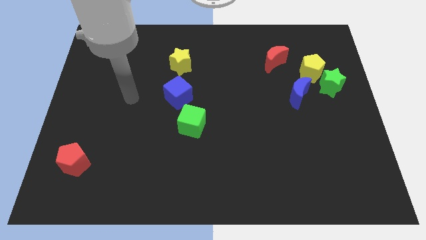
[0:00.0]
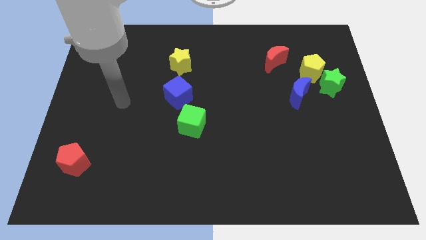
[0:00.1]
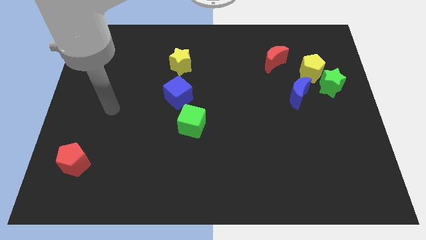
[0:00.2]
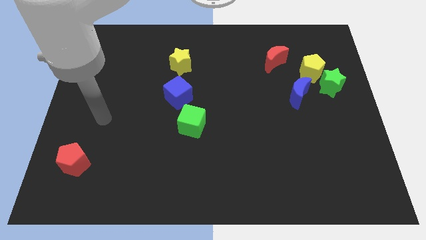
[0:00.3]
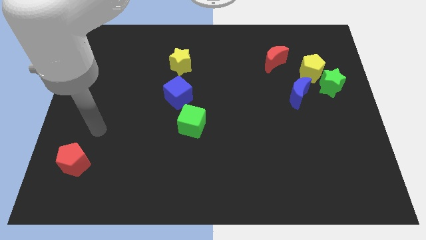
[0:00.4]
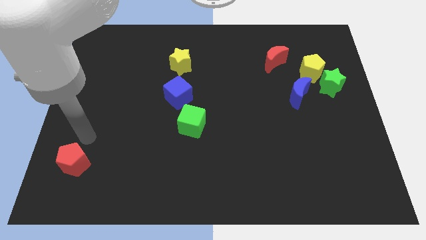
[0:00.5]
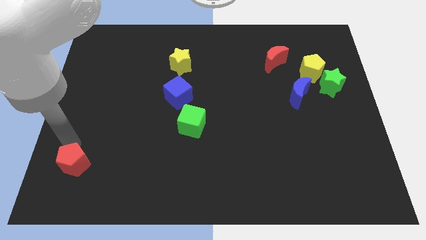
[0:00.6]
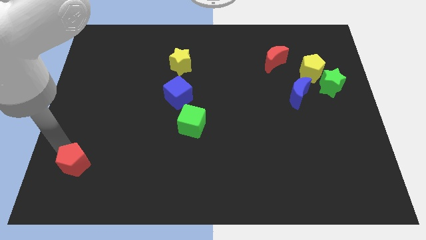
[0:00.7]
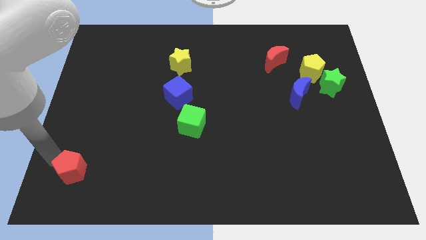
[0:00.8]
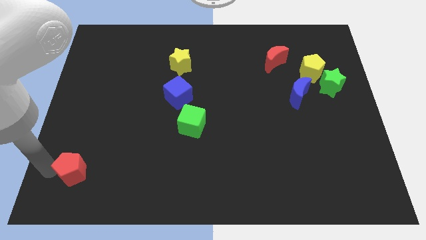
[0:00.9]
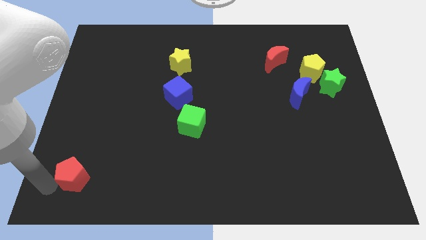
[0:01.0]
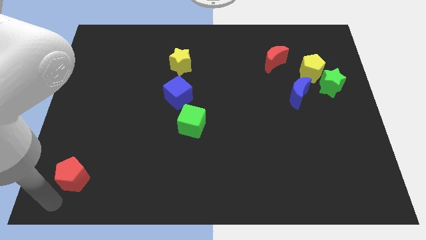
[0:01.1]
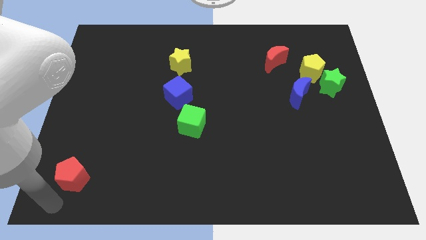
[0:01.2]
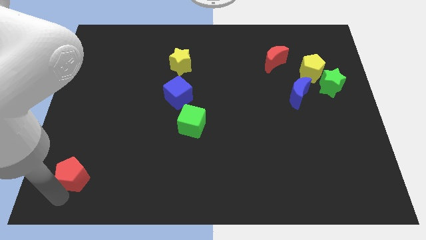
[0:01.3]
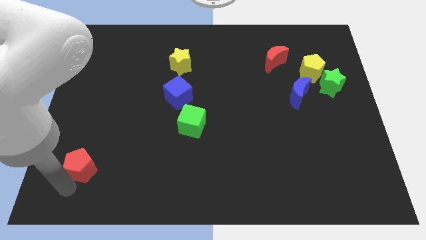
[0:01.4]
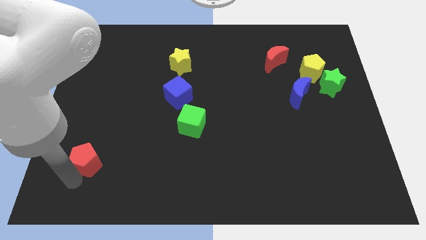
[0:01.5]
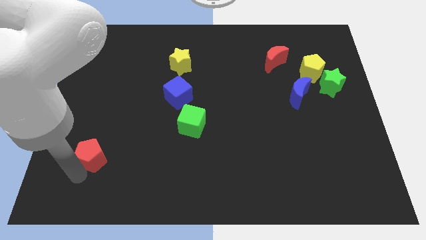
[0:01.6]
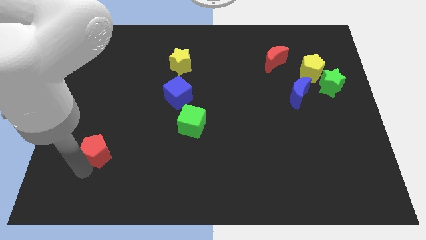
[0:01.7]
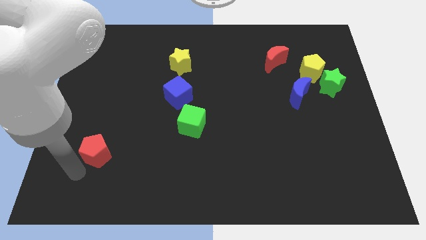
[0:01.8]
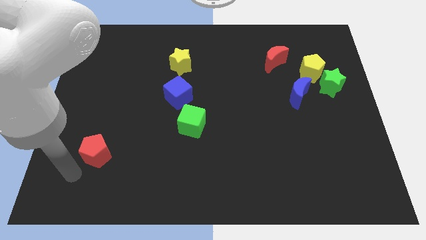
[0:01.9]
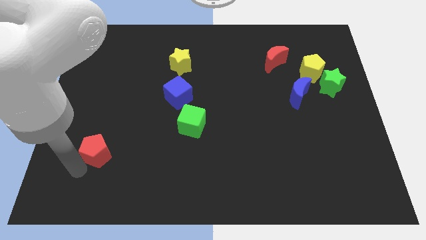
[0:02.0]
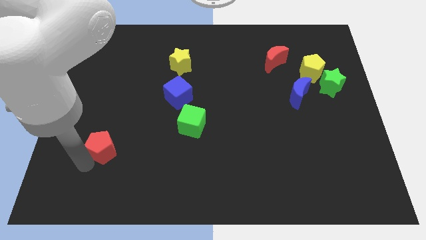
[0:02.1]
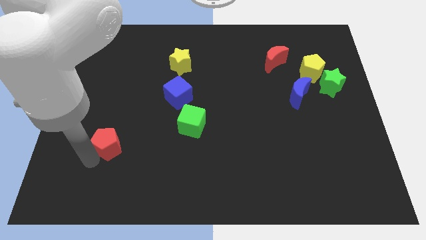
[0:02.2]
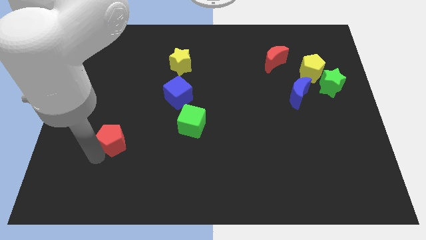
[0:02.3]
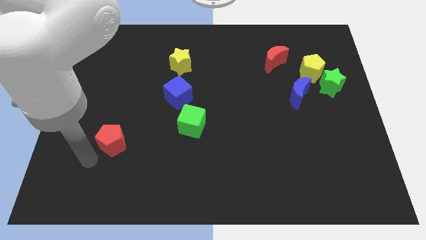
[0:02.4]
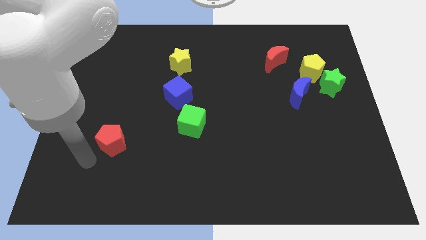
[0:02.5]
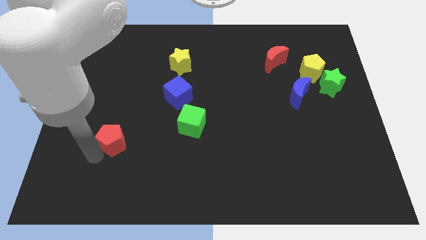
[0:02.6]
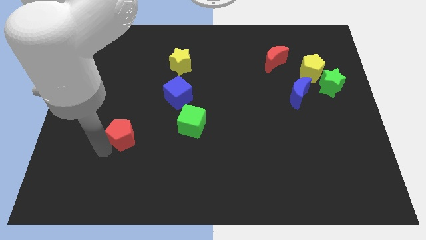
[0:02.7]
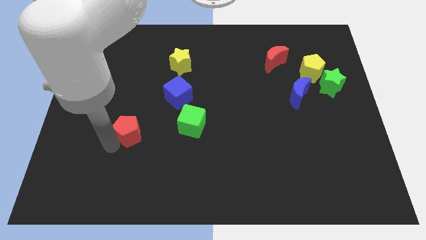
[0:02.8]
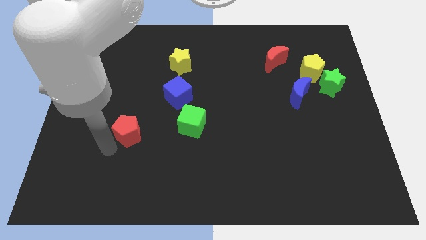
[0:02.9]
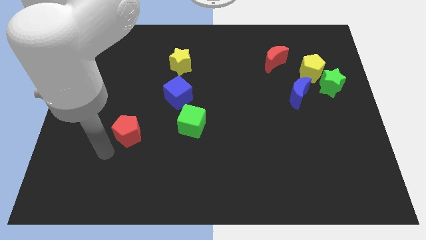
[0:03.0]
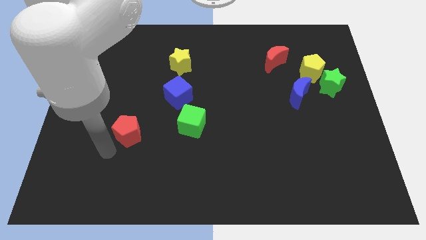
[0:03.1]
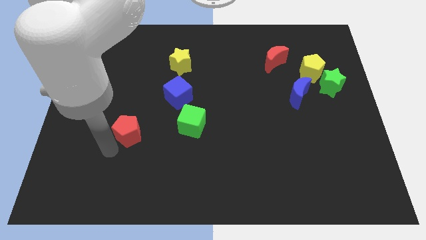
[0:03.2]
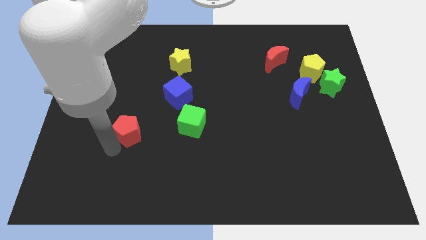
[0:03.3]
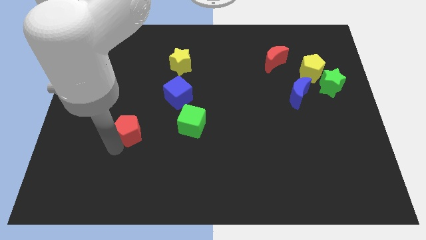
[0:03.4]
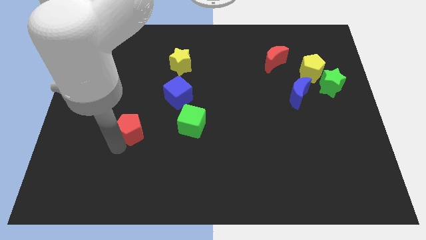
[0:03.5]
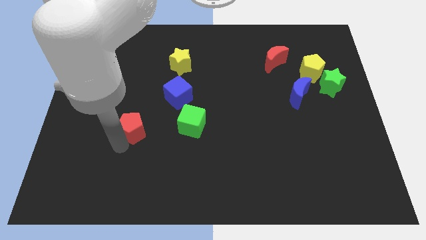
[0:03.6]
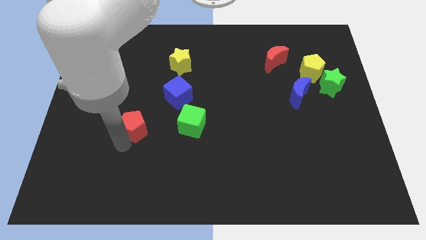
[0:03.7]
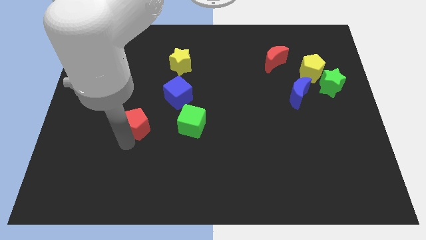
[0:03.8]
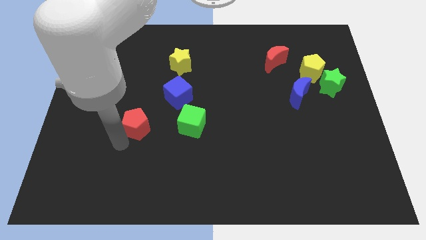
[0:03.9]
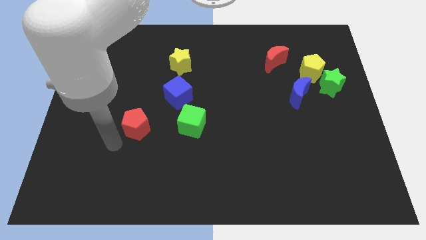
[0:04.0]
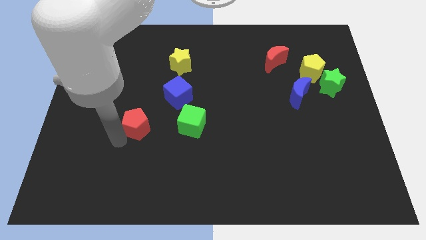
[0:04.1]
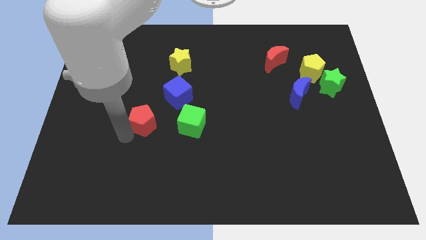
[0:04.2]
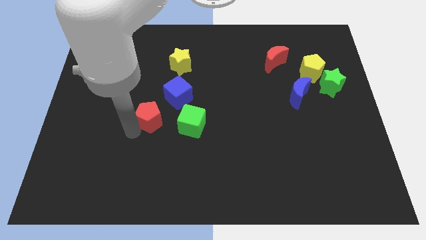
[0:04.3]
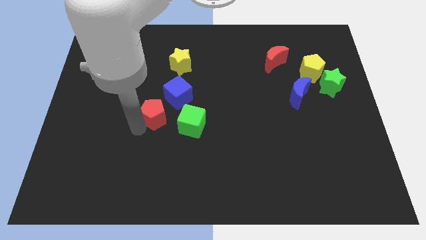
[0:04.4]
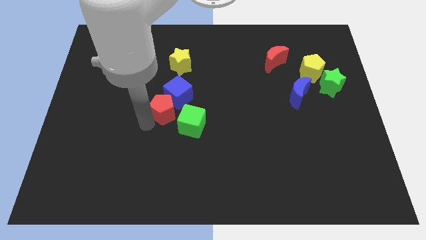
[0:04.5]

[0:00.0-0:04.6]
put the red pentagon close to the blue cube

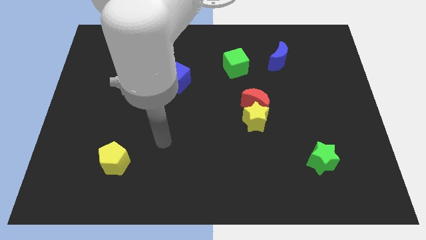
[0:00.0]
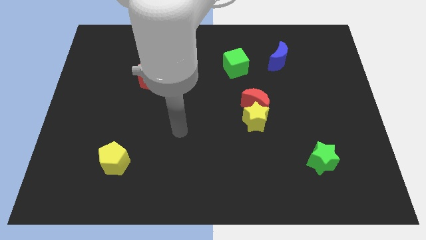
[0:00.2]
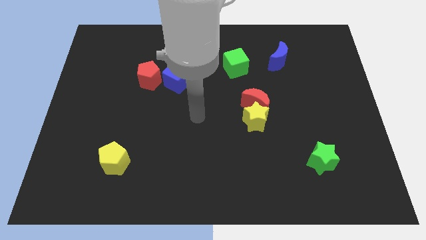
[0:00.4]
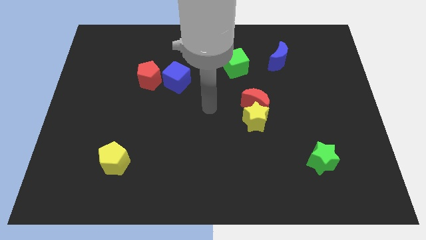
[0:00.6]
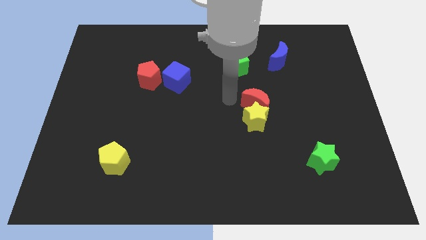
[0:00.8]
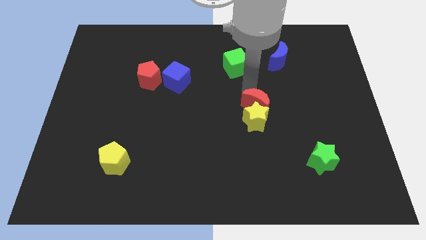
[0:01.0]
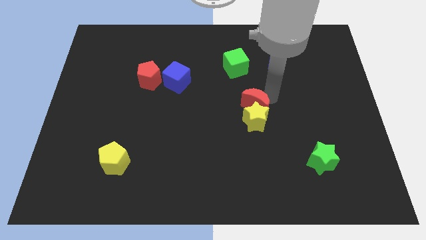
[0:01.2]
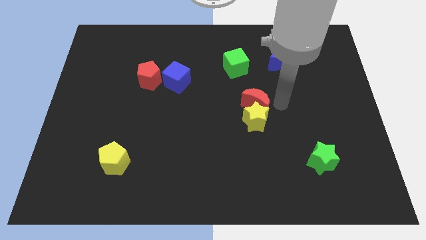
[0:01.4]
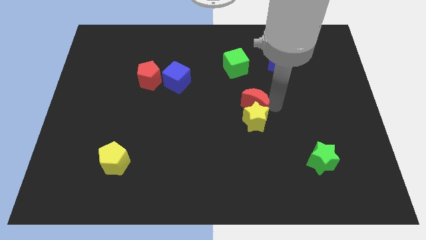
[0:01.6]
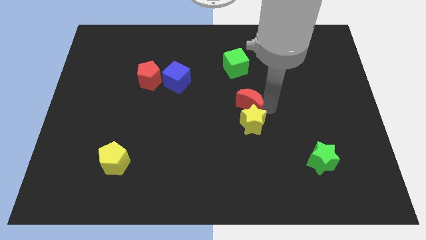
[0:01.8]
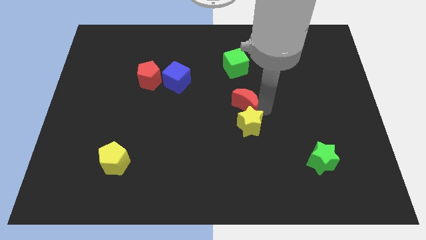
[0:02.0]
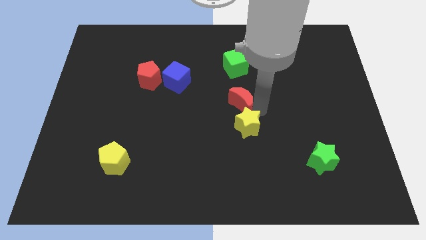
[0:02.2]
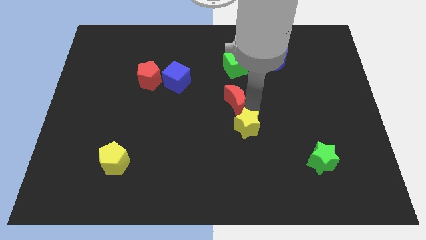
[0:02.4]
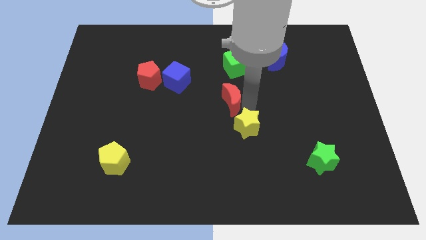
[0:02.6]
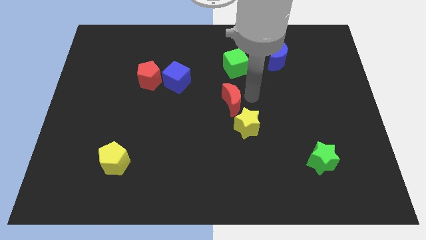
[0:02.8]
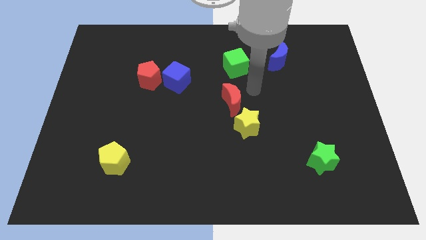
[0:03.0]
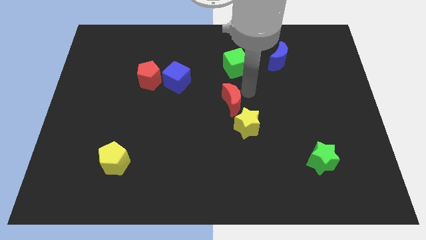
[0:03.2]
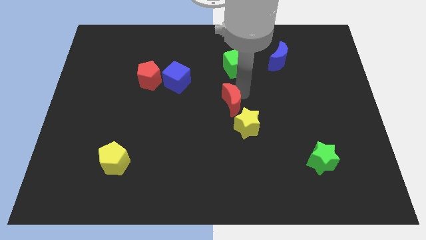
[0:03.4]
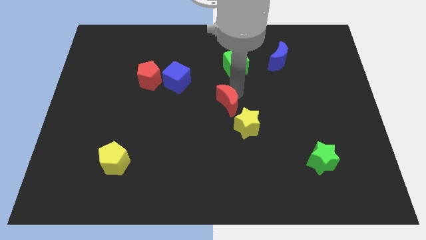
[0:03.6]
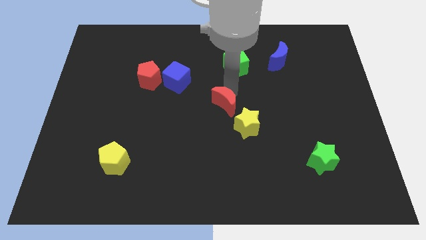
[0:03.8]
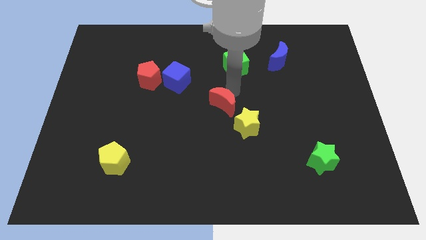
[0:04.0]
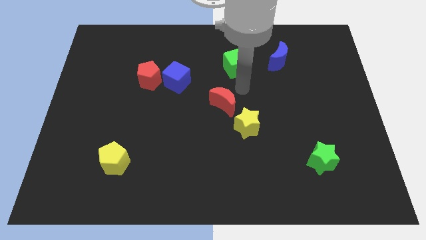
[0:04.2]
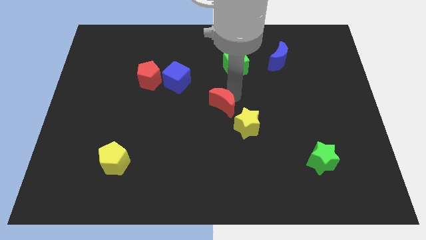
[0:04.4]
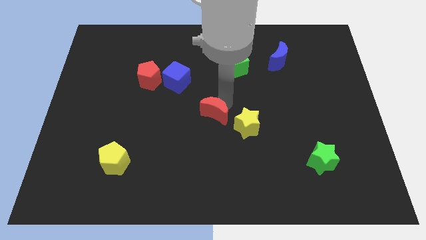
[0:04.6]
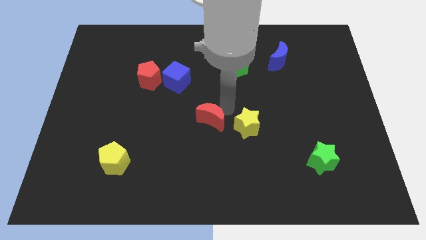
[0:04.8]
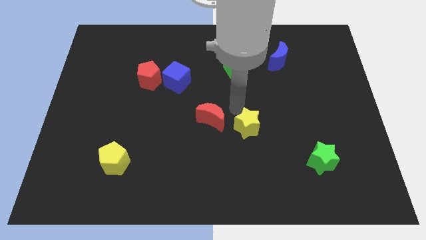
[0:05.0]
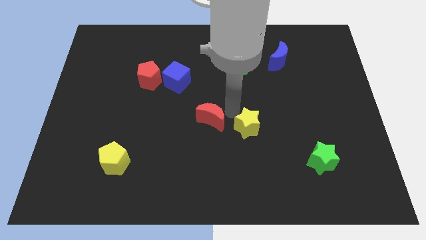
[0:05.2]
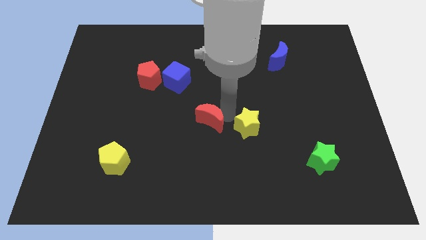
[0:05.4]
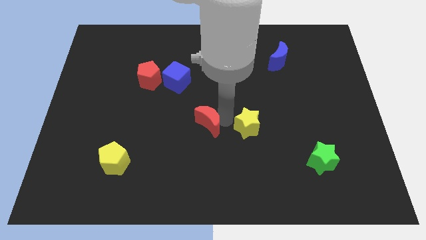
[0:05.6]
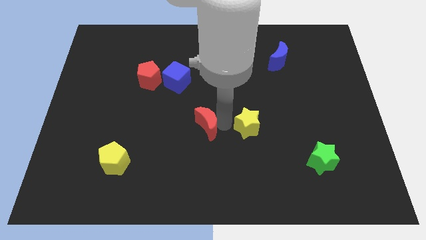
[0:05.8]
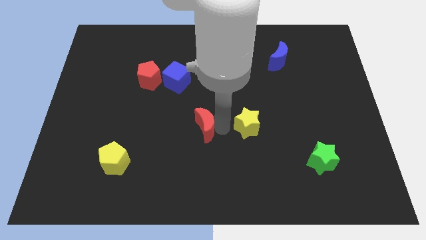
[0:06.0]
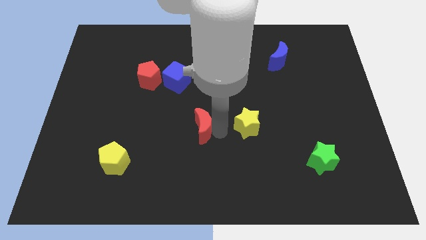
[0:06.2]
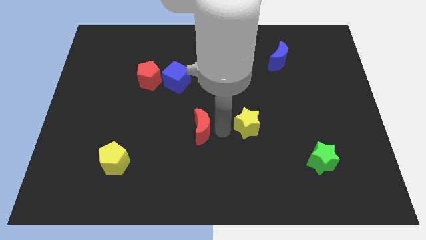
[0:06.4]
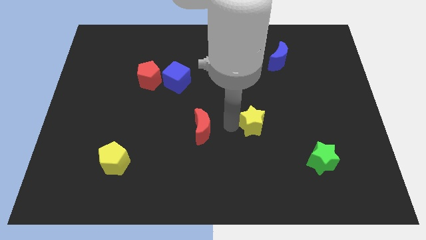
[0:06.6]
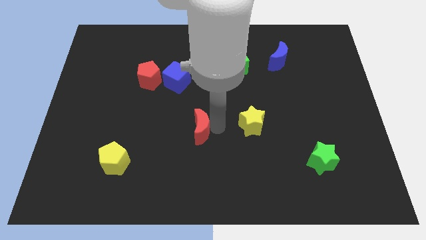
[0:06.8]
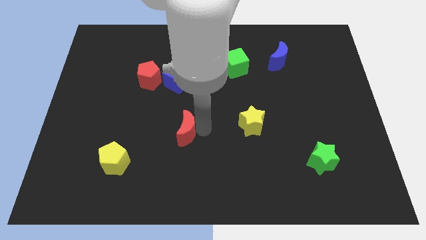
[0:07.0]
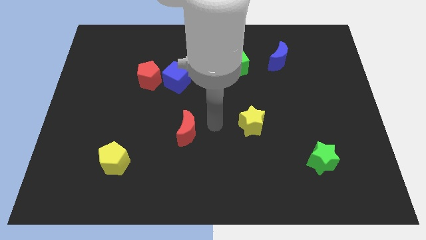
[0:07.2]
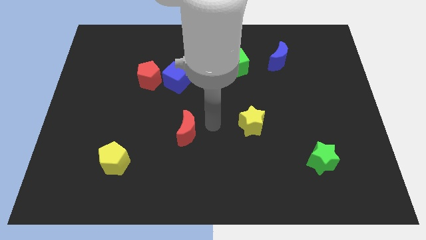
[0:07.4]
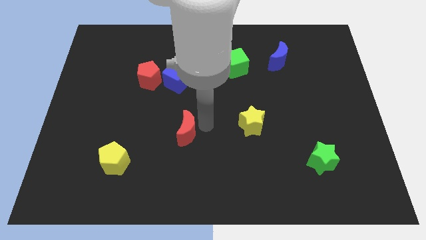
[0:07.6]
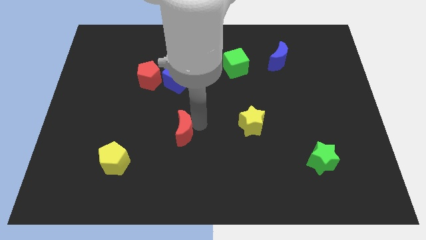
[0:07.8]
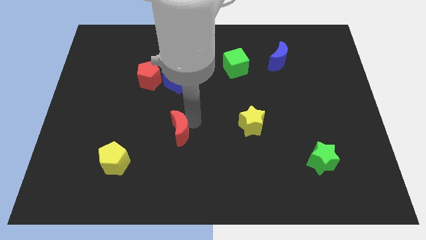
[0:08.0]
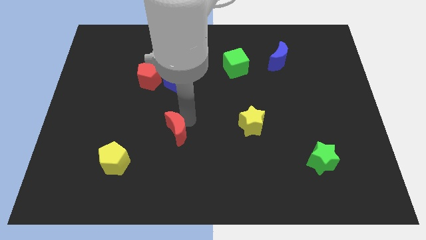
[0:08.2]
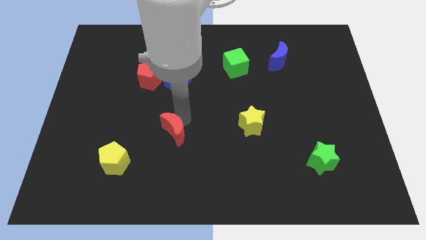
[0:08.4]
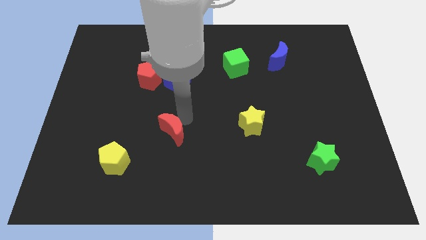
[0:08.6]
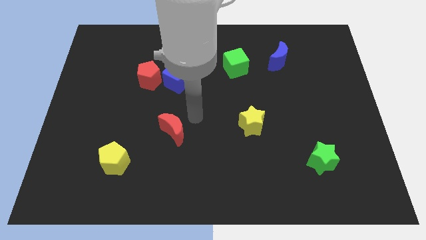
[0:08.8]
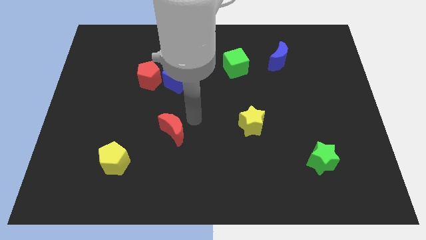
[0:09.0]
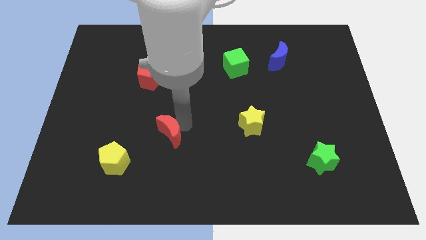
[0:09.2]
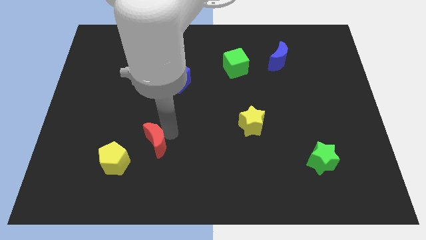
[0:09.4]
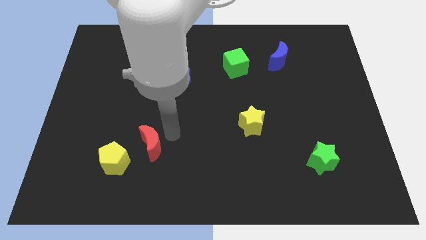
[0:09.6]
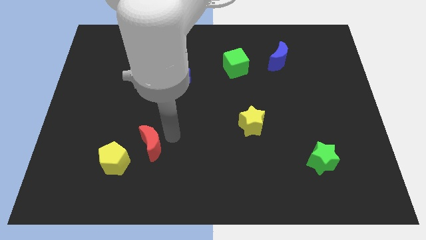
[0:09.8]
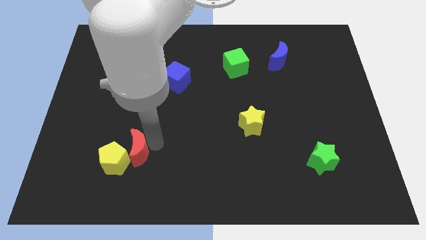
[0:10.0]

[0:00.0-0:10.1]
slide the red moon to the yellow pentagon
